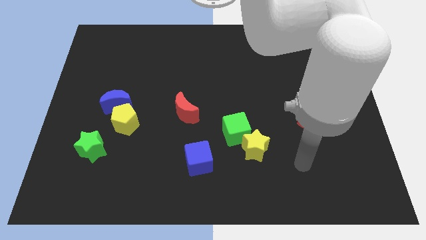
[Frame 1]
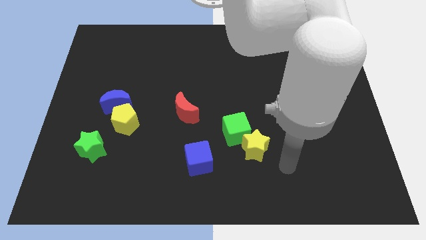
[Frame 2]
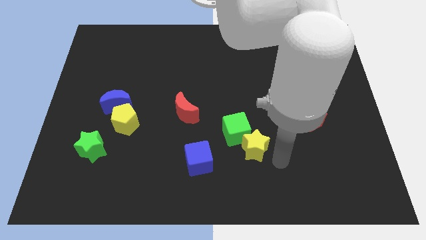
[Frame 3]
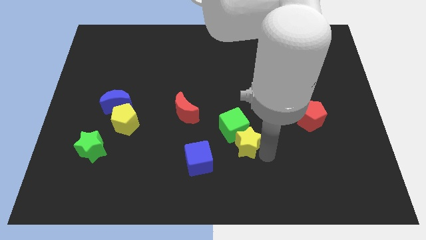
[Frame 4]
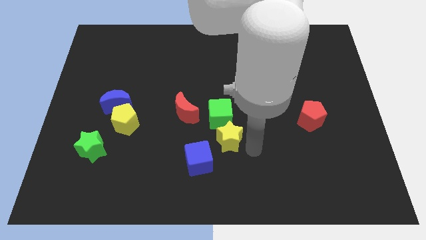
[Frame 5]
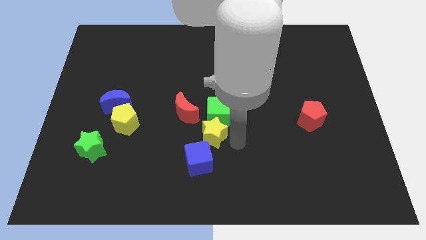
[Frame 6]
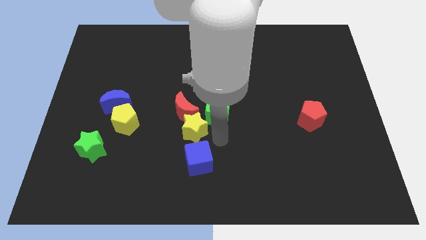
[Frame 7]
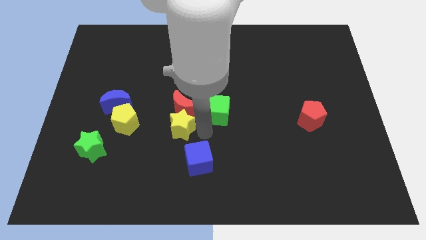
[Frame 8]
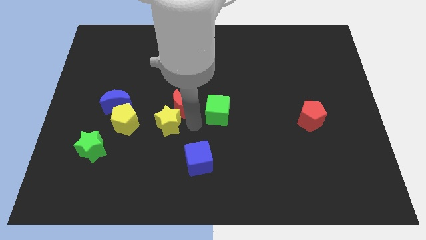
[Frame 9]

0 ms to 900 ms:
move the green cube away from the yellow star

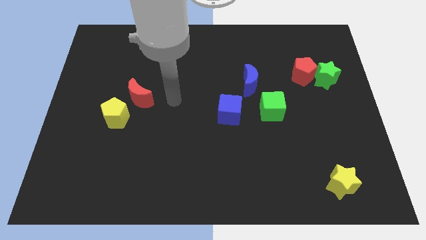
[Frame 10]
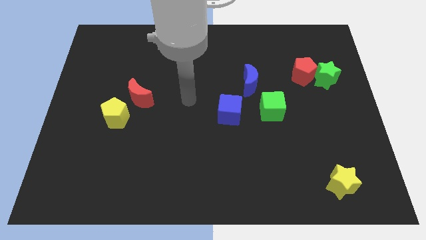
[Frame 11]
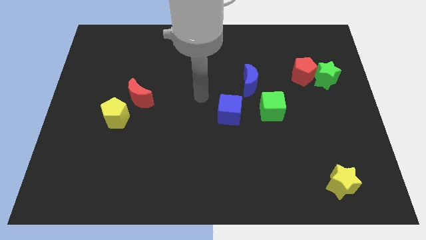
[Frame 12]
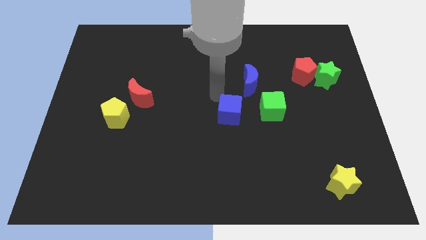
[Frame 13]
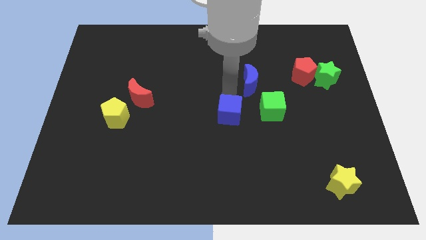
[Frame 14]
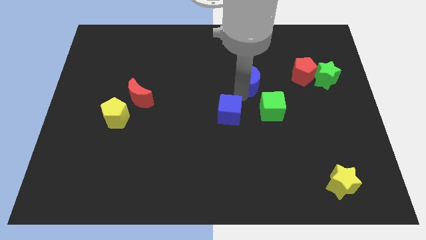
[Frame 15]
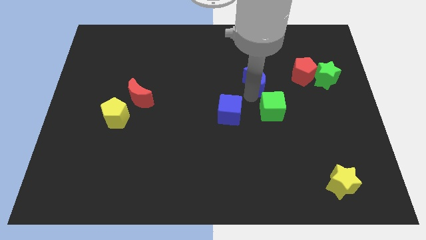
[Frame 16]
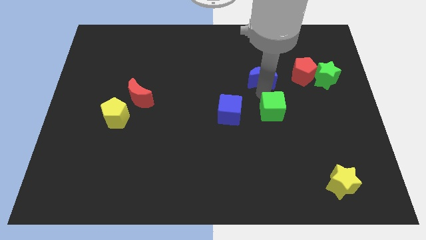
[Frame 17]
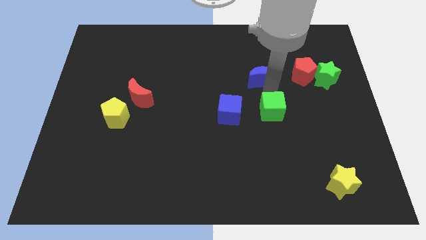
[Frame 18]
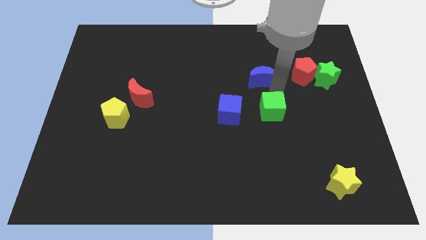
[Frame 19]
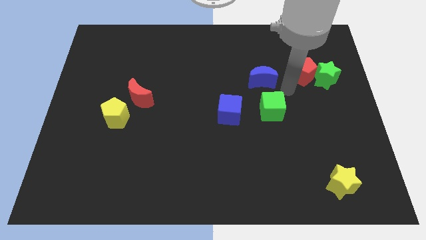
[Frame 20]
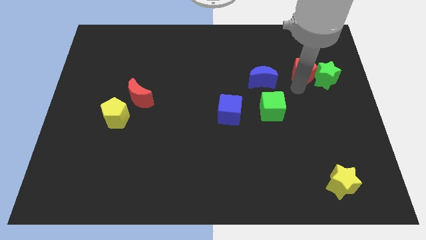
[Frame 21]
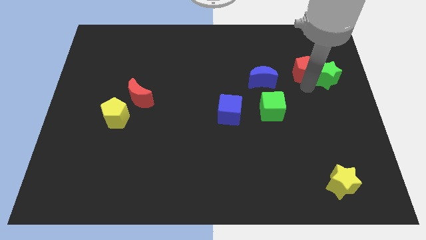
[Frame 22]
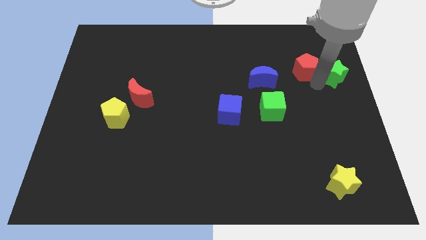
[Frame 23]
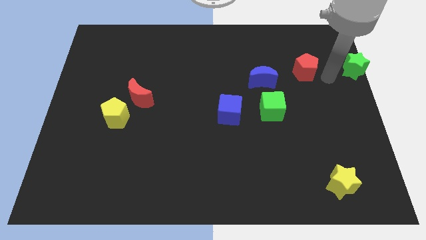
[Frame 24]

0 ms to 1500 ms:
separate the red pentagon from the green star

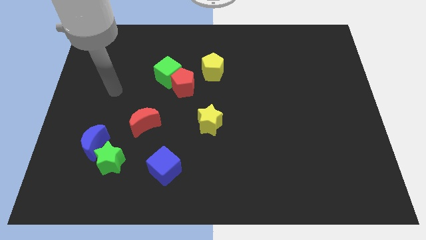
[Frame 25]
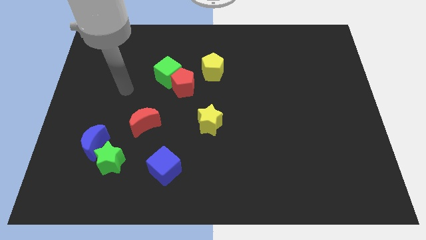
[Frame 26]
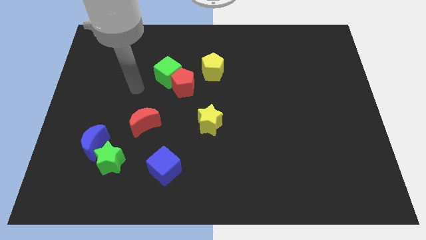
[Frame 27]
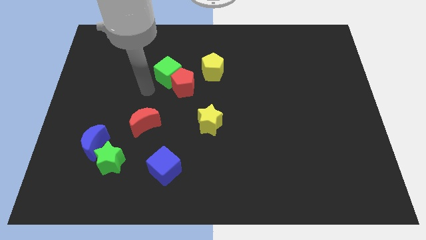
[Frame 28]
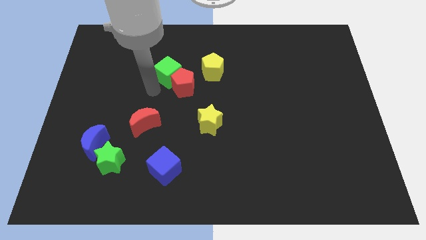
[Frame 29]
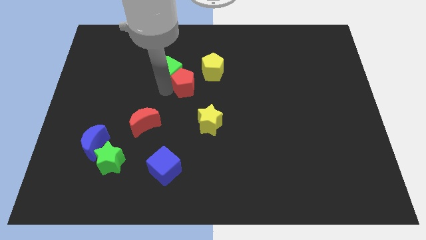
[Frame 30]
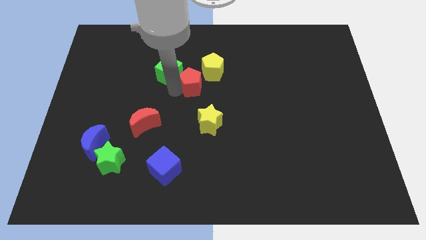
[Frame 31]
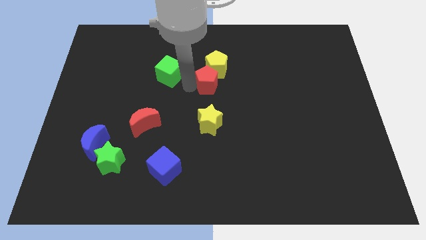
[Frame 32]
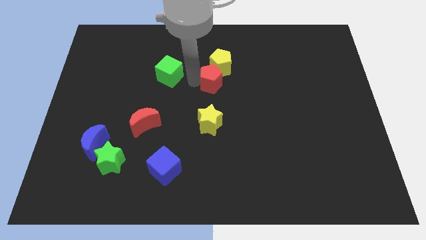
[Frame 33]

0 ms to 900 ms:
move the green cube away from the red pentagon

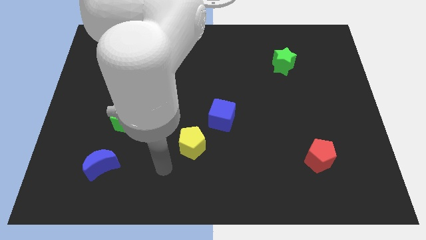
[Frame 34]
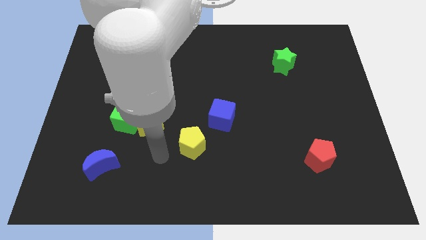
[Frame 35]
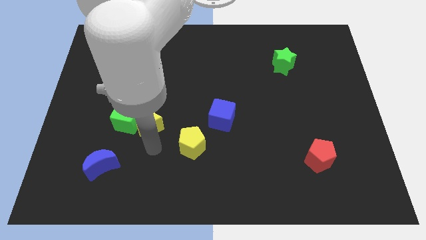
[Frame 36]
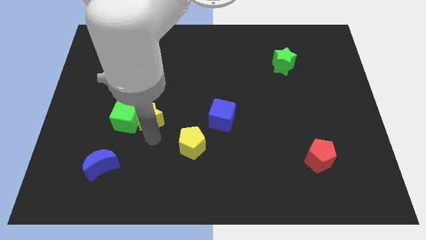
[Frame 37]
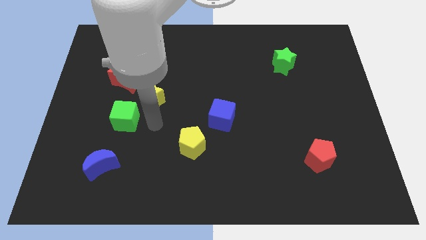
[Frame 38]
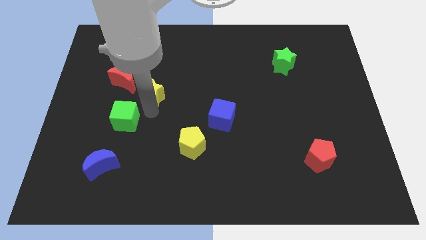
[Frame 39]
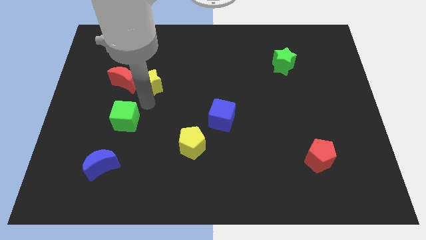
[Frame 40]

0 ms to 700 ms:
separate the green cube from the yellow star

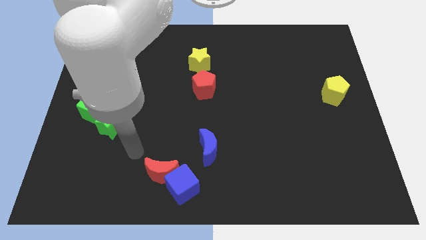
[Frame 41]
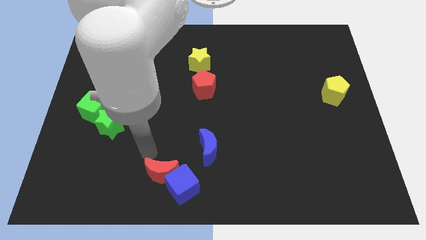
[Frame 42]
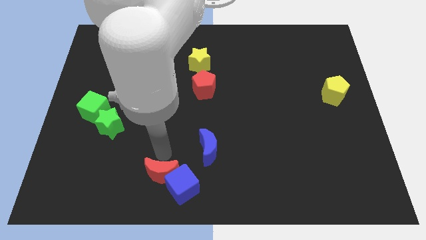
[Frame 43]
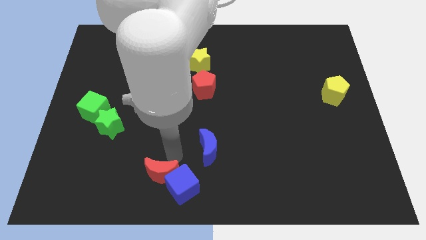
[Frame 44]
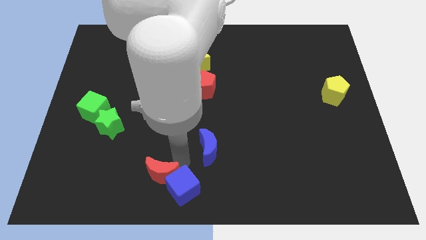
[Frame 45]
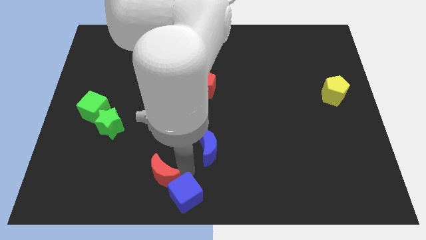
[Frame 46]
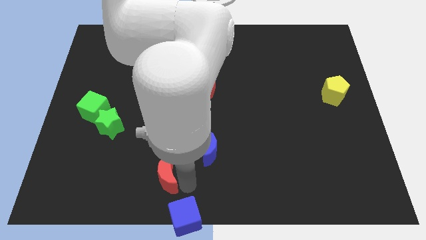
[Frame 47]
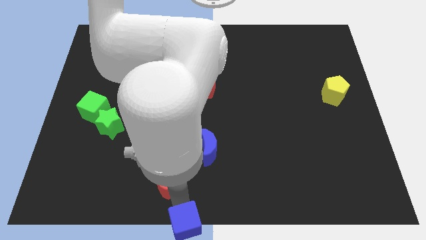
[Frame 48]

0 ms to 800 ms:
move the red moon away from the blue cube

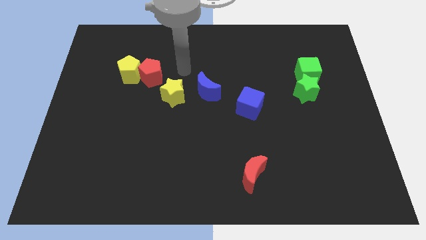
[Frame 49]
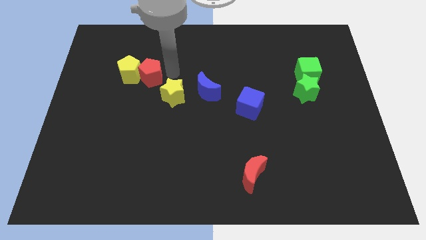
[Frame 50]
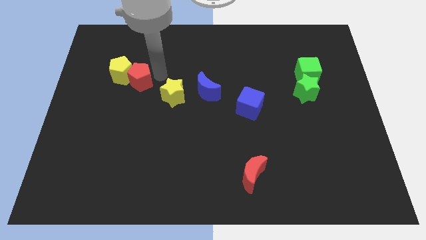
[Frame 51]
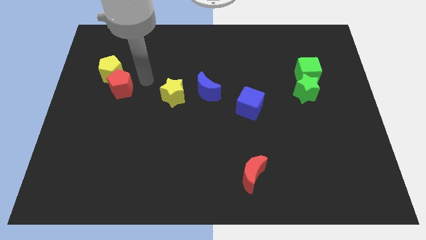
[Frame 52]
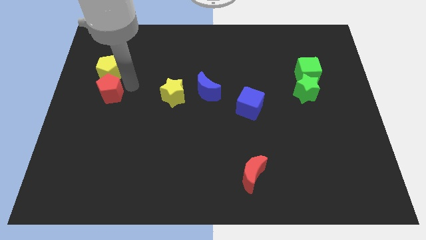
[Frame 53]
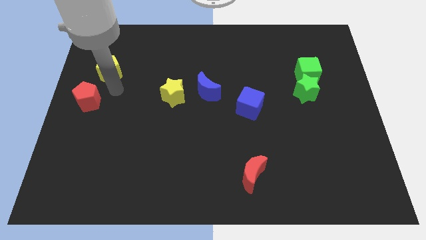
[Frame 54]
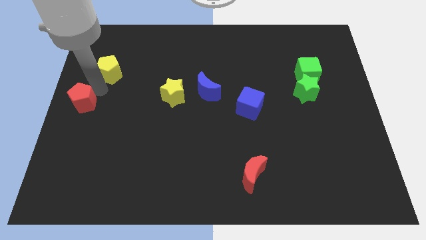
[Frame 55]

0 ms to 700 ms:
pull the yellow pentagon apart from the red pentagon

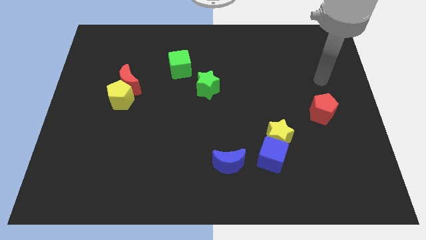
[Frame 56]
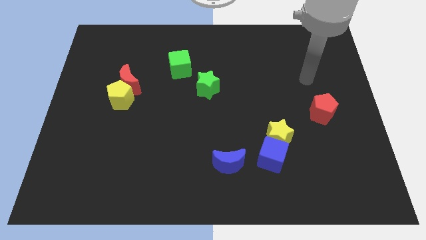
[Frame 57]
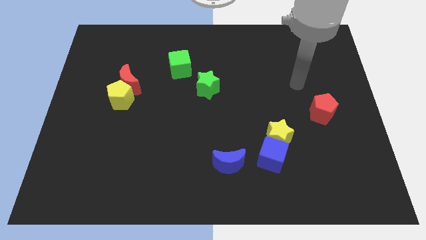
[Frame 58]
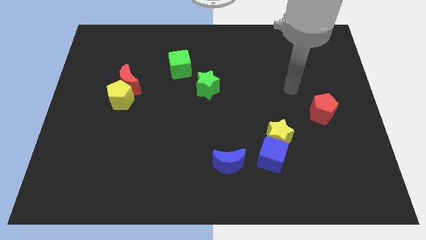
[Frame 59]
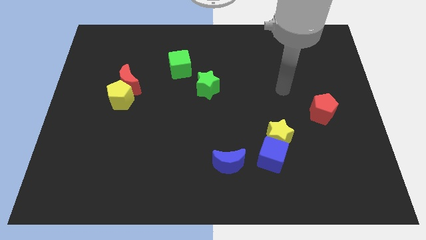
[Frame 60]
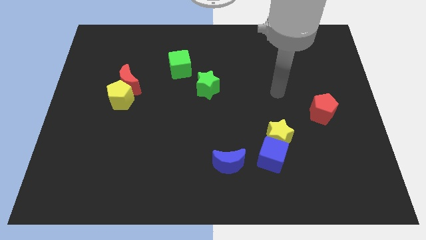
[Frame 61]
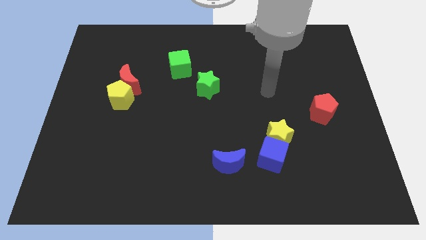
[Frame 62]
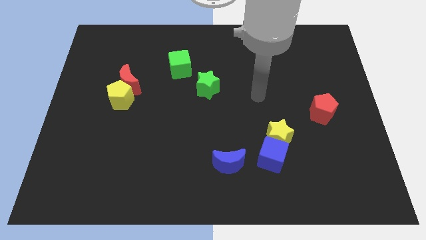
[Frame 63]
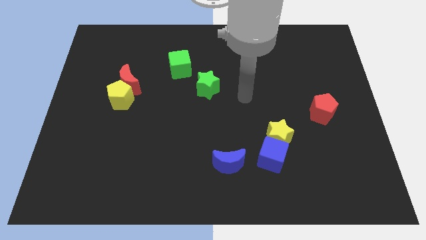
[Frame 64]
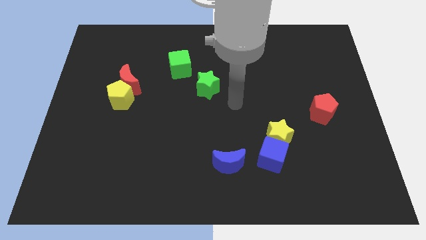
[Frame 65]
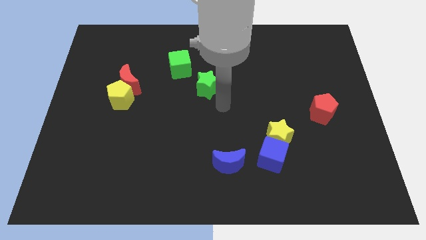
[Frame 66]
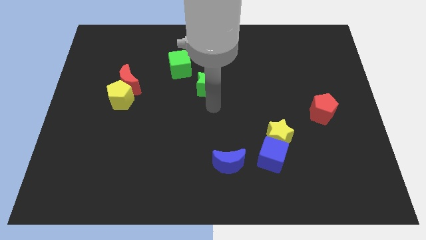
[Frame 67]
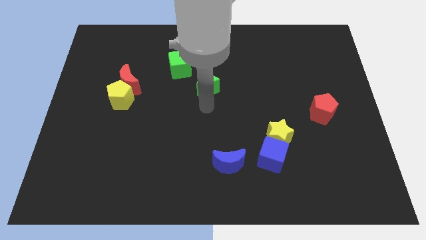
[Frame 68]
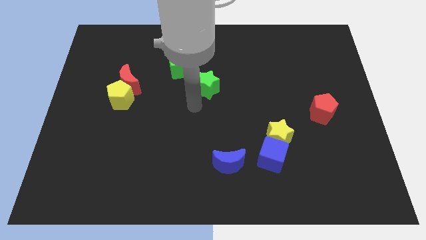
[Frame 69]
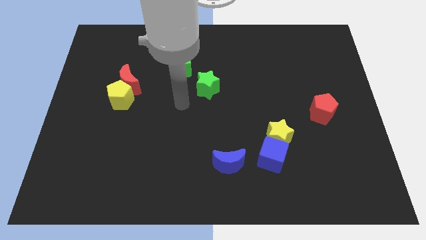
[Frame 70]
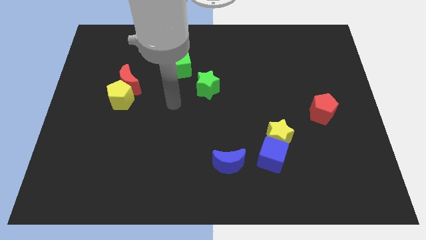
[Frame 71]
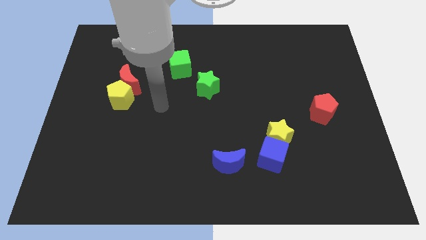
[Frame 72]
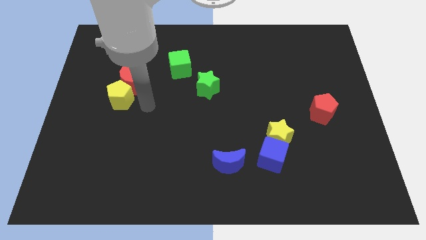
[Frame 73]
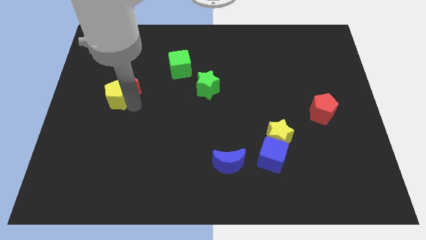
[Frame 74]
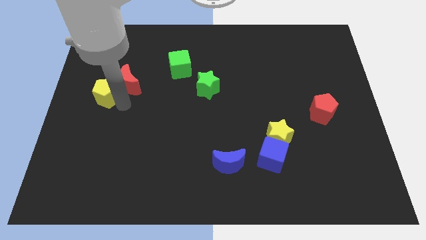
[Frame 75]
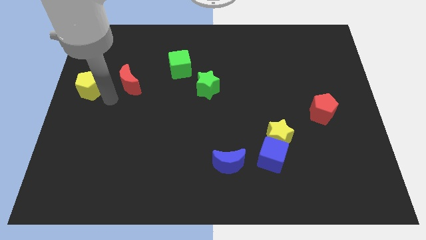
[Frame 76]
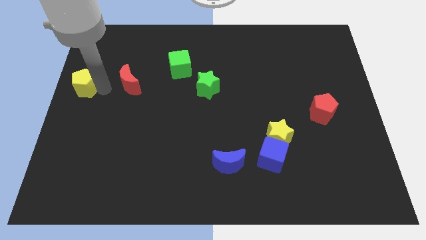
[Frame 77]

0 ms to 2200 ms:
move the red moon away from the yellow pentagon

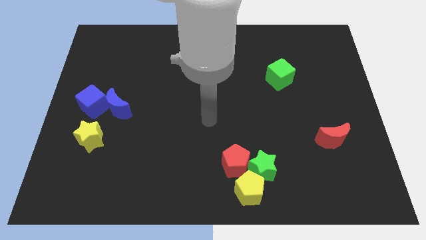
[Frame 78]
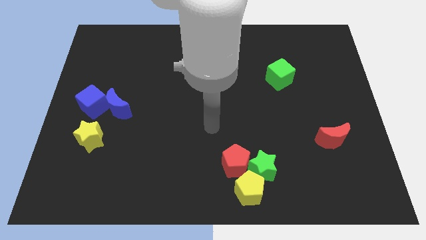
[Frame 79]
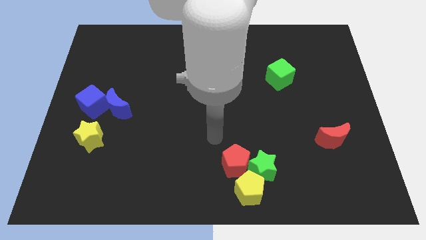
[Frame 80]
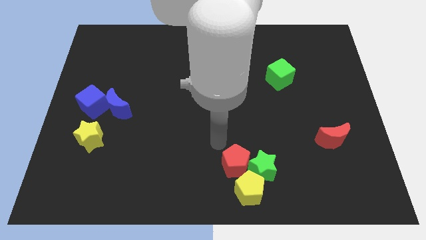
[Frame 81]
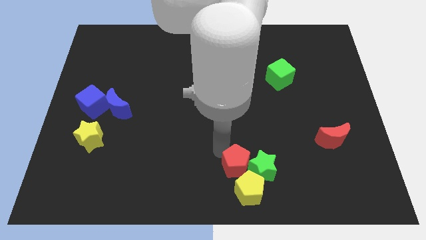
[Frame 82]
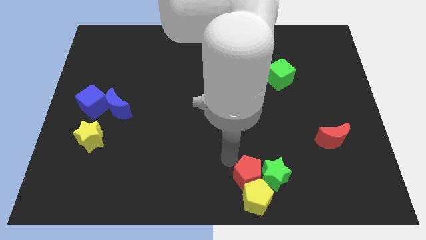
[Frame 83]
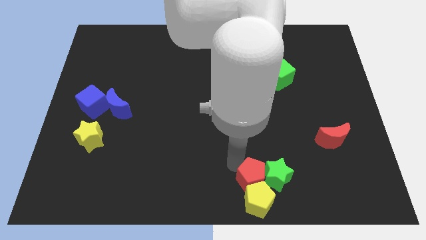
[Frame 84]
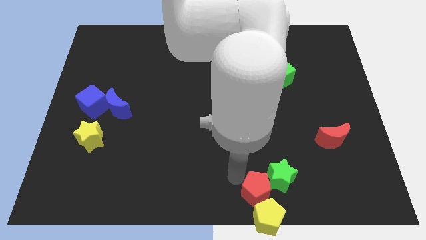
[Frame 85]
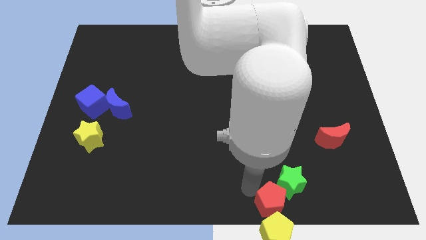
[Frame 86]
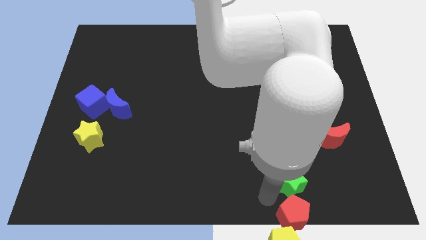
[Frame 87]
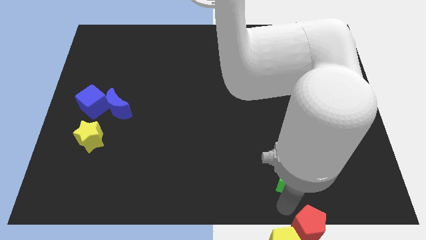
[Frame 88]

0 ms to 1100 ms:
separate the green star from the yellow pentagon and red pentagon

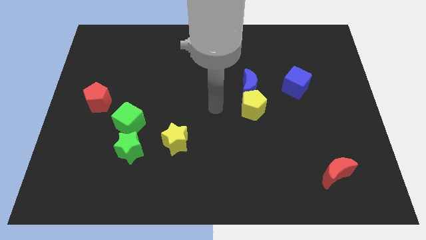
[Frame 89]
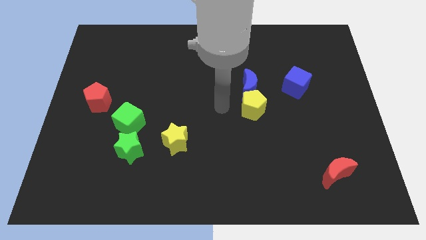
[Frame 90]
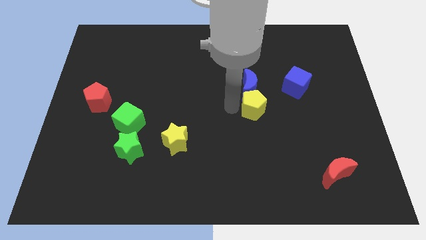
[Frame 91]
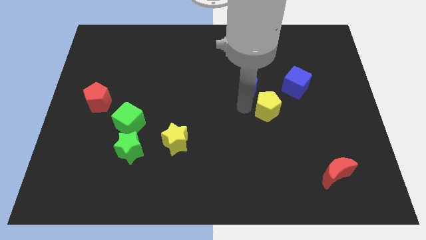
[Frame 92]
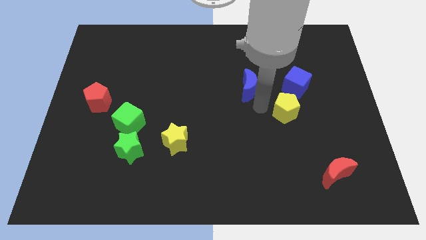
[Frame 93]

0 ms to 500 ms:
pull the blue moon apart from the yellow pentagon
